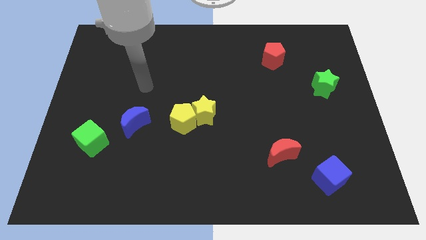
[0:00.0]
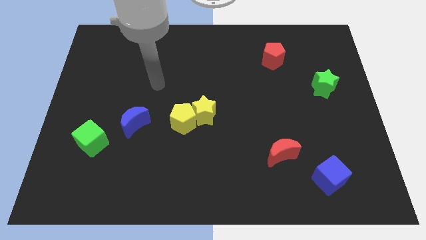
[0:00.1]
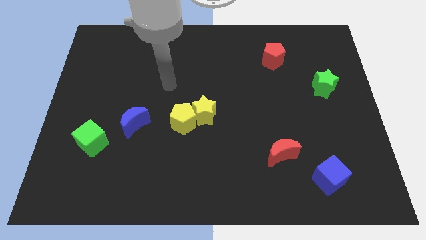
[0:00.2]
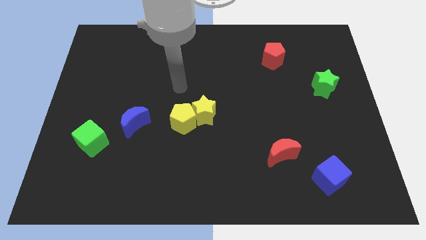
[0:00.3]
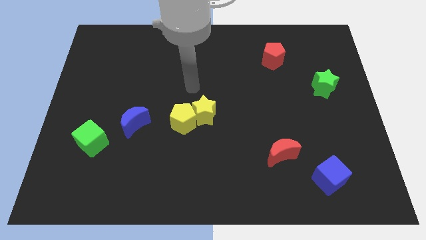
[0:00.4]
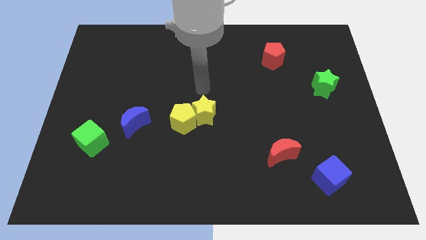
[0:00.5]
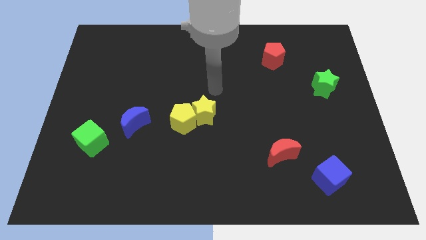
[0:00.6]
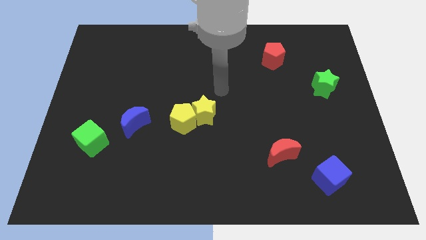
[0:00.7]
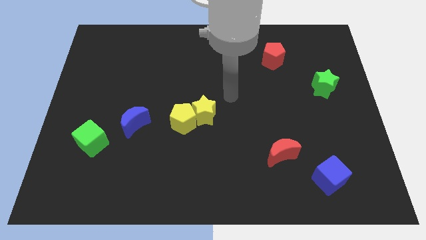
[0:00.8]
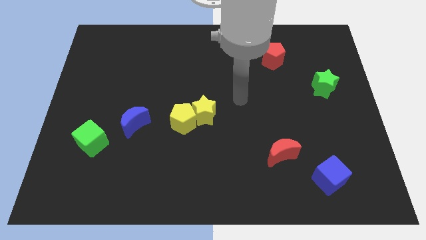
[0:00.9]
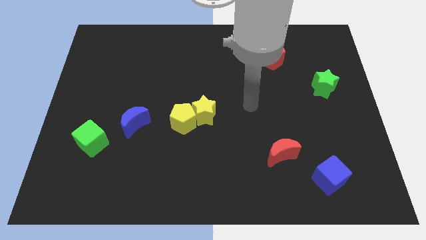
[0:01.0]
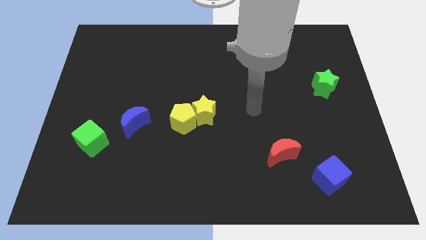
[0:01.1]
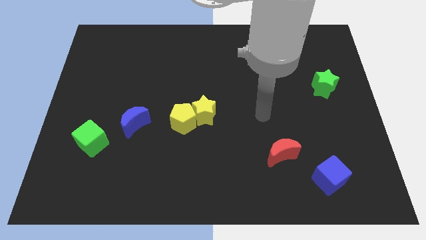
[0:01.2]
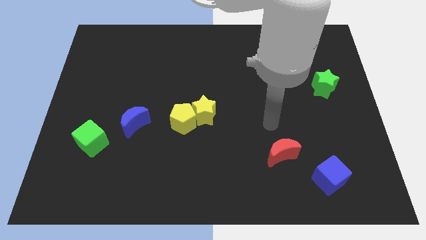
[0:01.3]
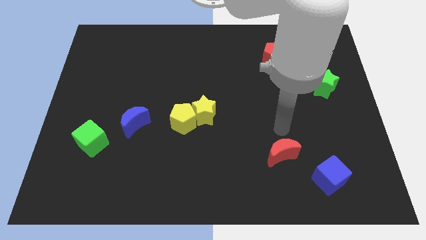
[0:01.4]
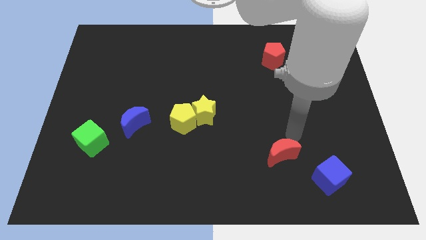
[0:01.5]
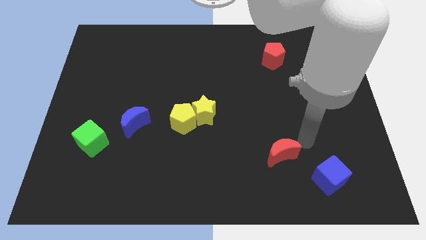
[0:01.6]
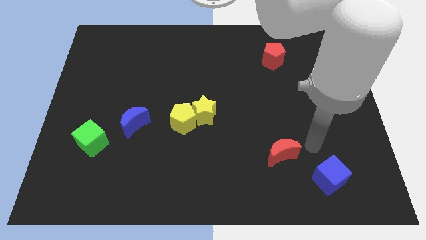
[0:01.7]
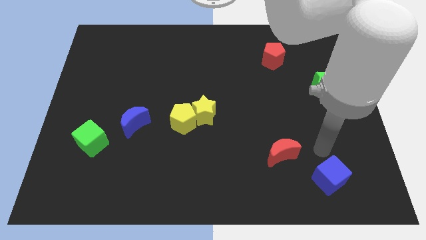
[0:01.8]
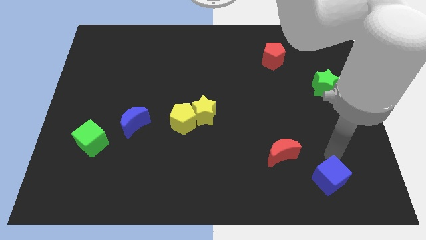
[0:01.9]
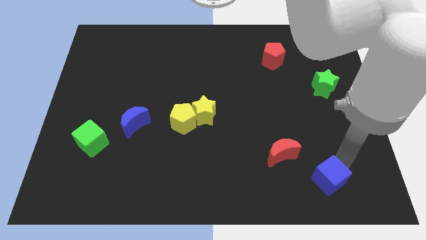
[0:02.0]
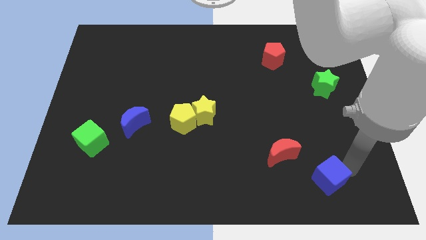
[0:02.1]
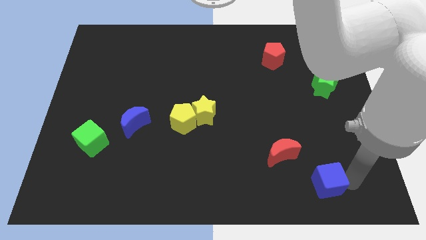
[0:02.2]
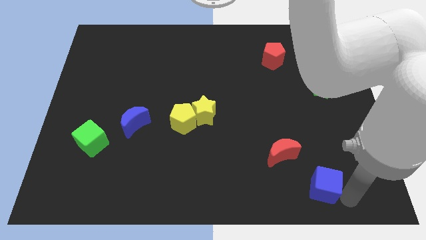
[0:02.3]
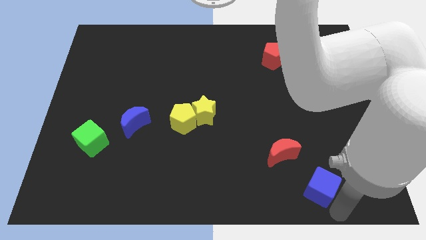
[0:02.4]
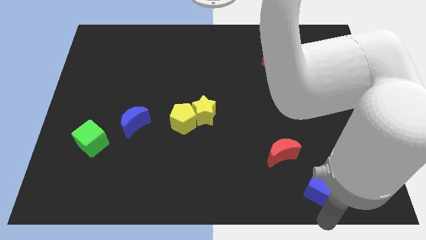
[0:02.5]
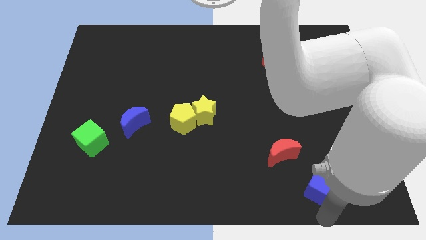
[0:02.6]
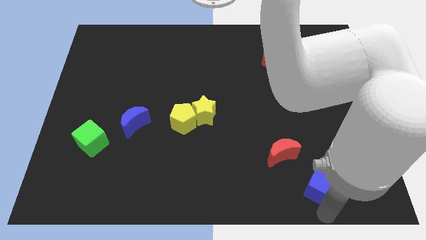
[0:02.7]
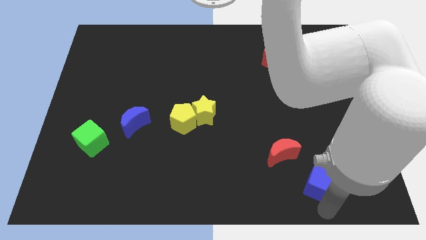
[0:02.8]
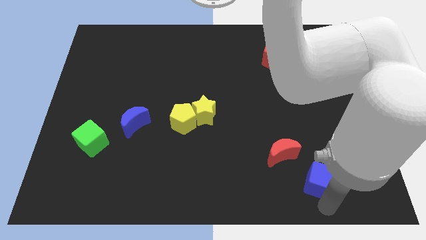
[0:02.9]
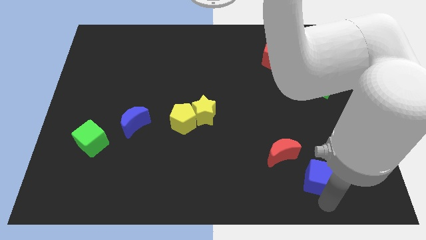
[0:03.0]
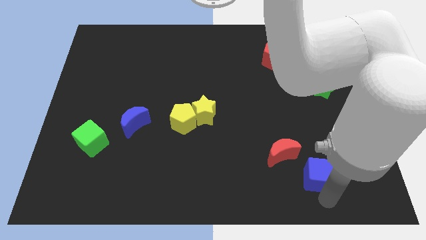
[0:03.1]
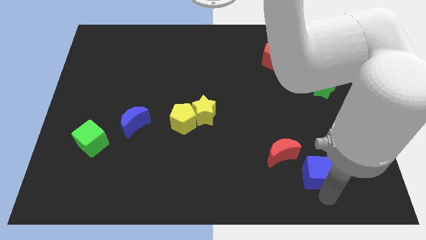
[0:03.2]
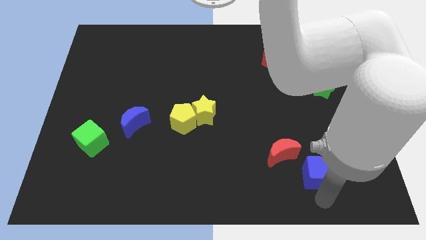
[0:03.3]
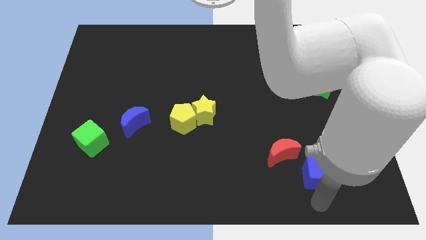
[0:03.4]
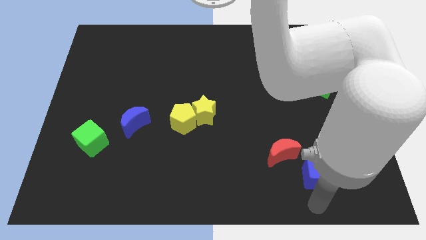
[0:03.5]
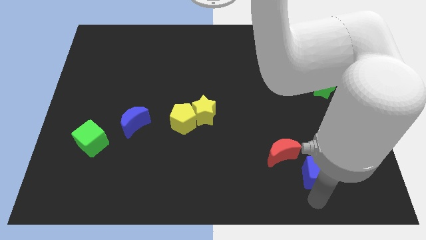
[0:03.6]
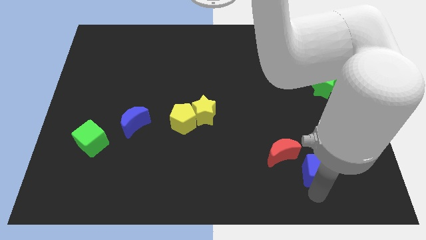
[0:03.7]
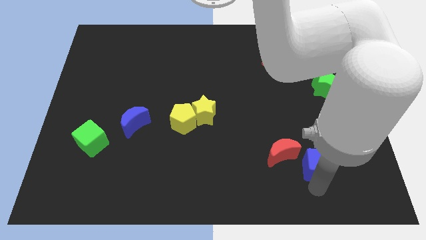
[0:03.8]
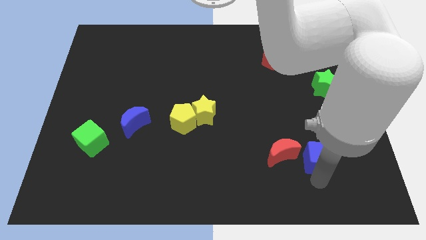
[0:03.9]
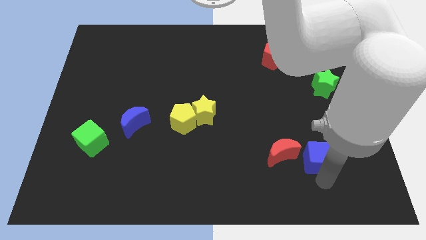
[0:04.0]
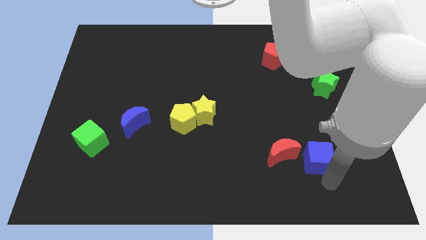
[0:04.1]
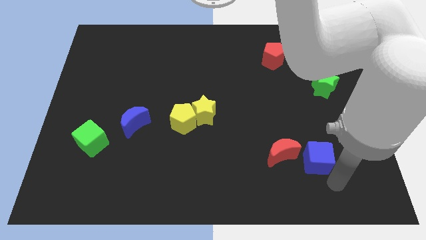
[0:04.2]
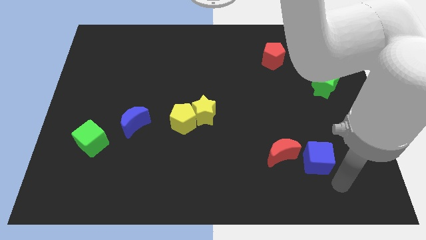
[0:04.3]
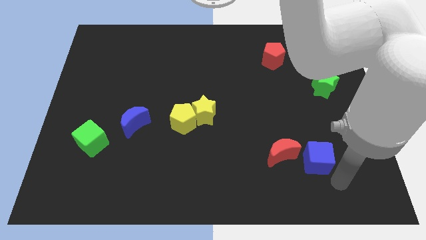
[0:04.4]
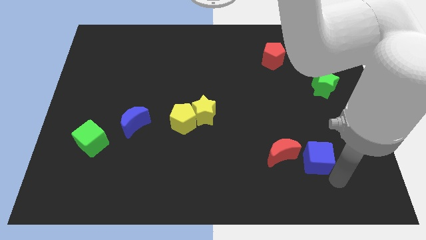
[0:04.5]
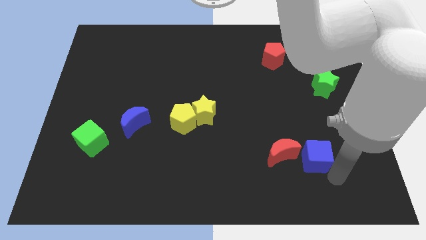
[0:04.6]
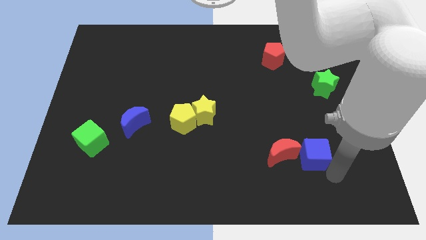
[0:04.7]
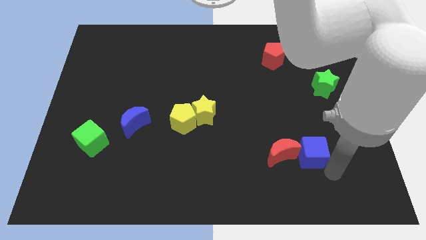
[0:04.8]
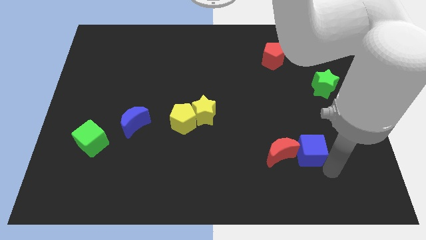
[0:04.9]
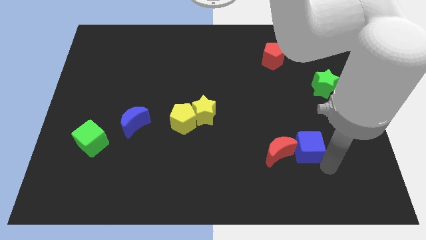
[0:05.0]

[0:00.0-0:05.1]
move the blue cube upwards and to the left diagonally slightly

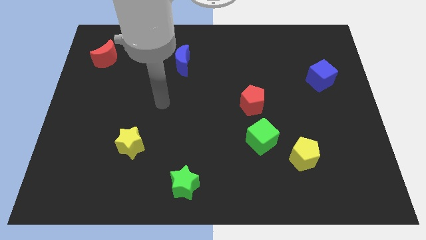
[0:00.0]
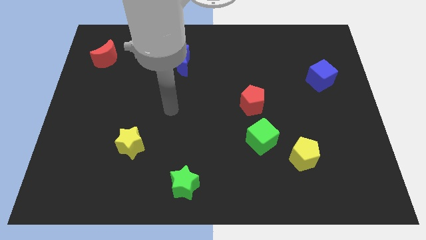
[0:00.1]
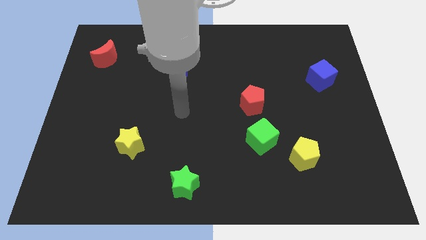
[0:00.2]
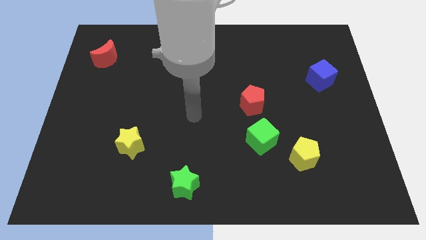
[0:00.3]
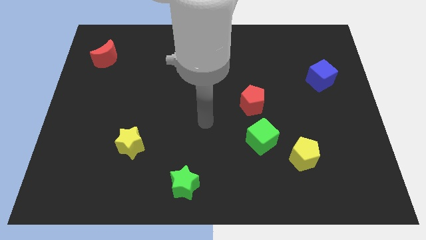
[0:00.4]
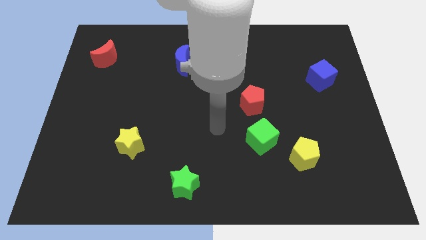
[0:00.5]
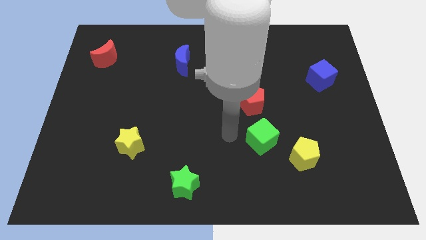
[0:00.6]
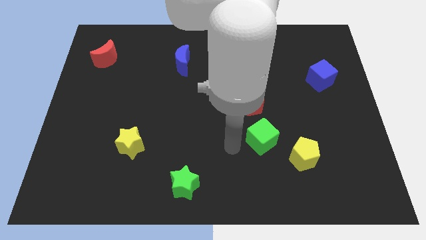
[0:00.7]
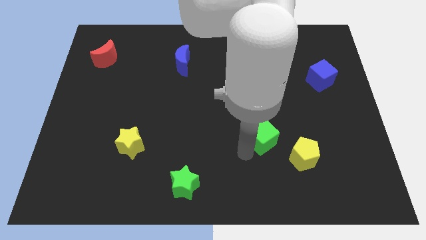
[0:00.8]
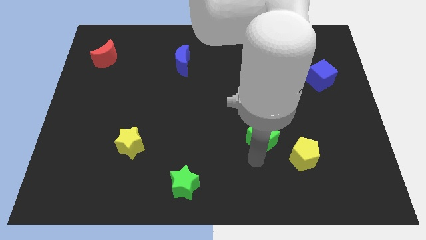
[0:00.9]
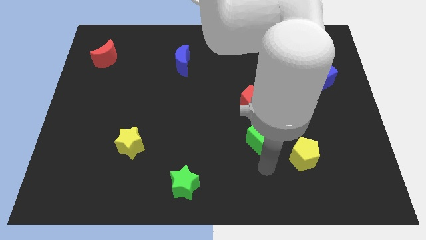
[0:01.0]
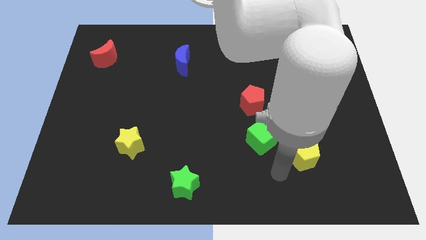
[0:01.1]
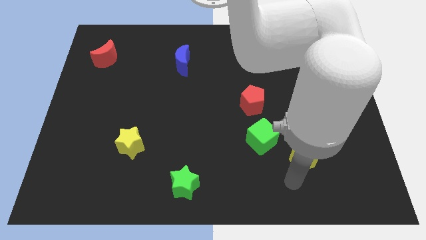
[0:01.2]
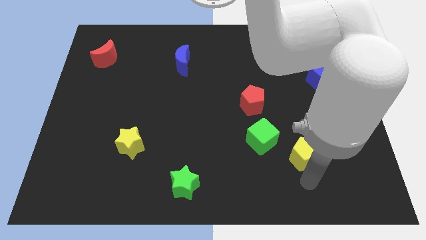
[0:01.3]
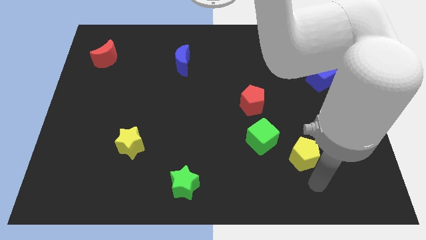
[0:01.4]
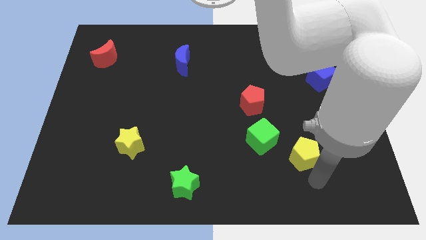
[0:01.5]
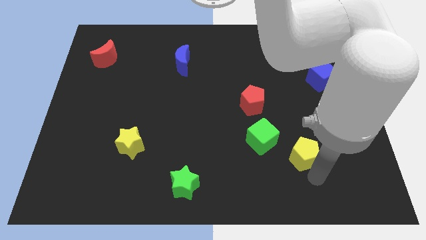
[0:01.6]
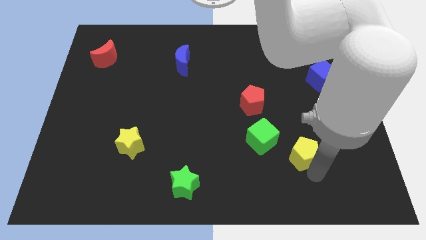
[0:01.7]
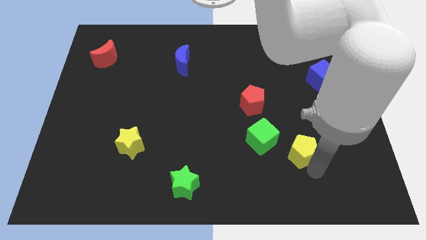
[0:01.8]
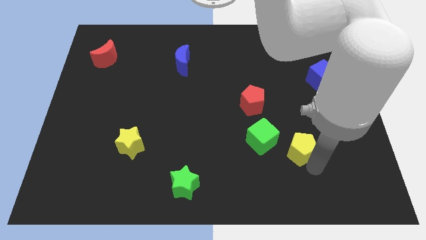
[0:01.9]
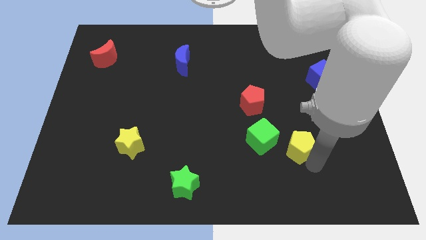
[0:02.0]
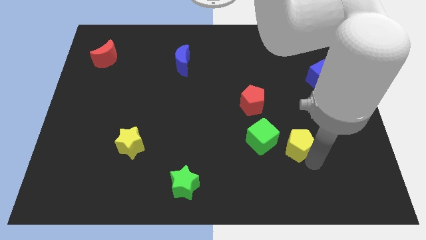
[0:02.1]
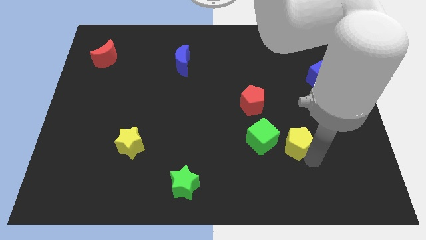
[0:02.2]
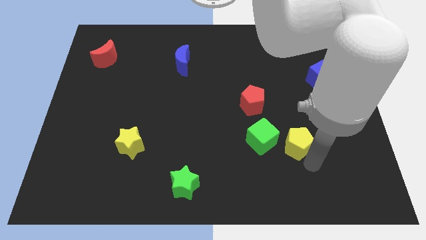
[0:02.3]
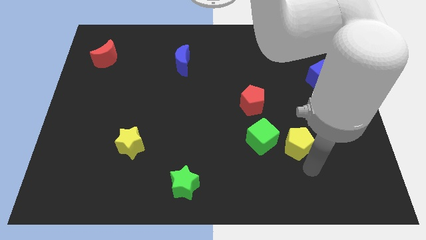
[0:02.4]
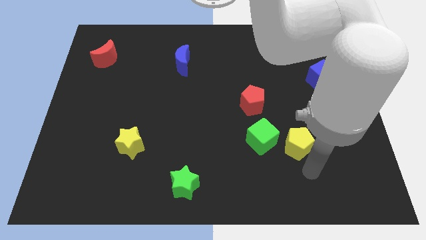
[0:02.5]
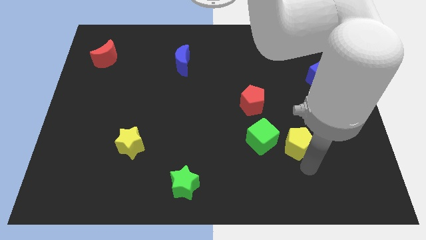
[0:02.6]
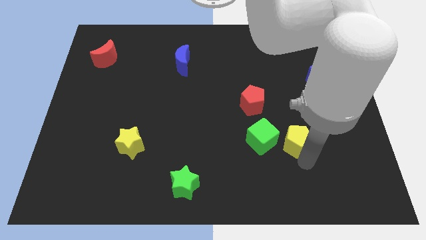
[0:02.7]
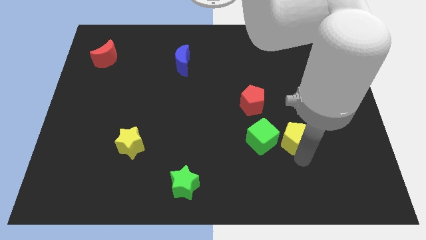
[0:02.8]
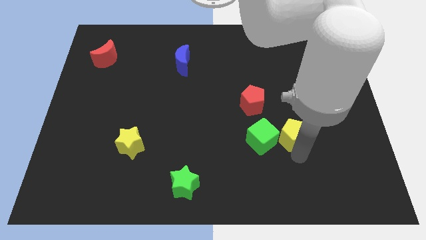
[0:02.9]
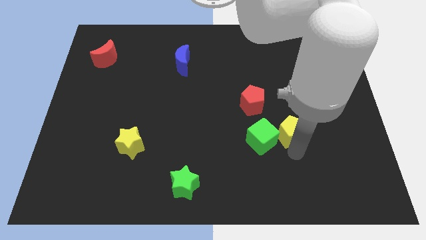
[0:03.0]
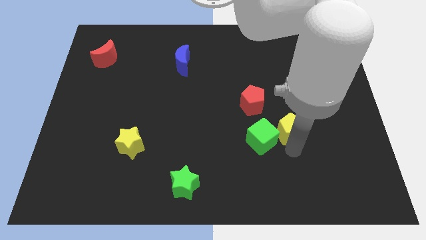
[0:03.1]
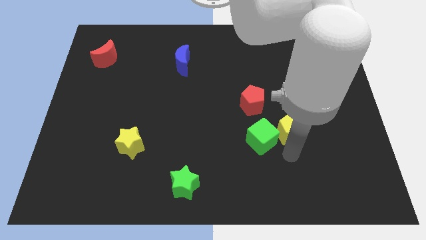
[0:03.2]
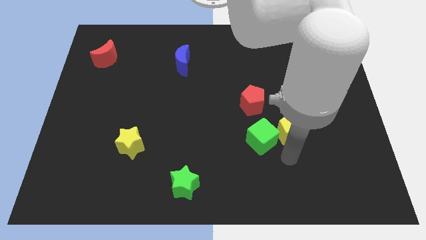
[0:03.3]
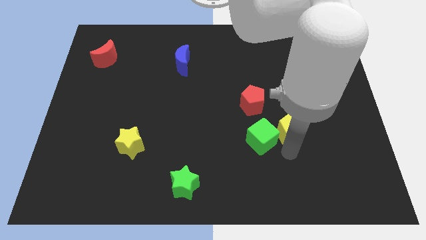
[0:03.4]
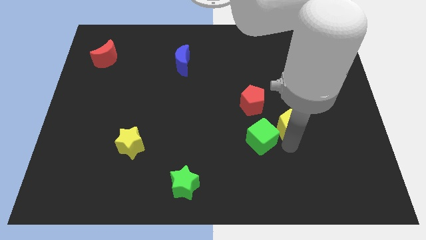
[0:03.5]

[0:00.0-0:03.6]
move the yellow pentagon up somewhat
